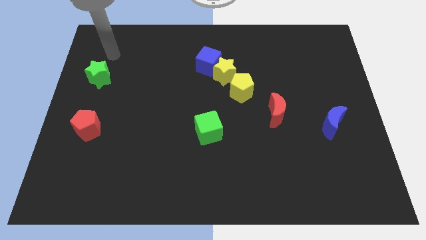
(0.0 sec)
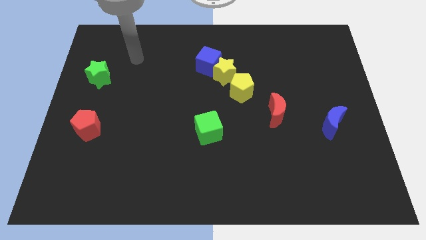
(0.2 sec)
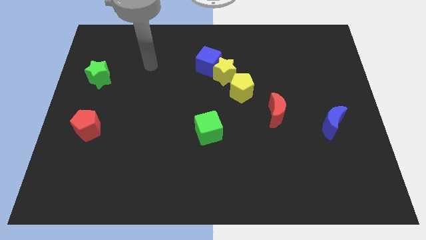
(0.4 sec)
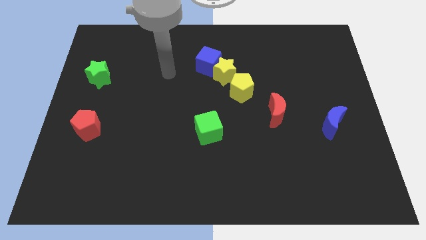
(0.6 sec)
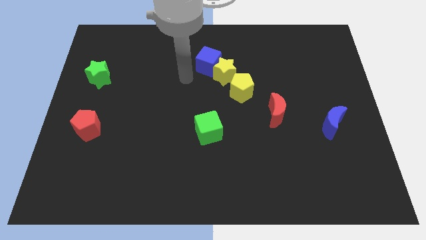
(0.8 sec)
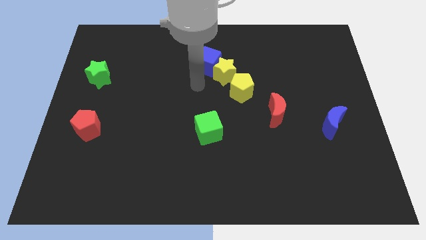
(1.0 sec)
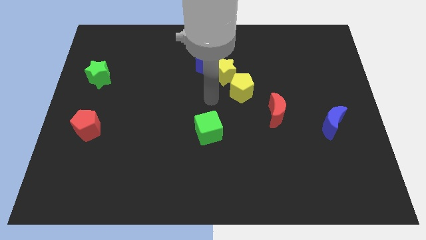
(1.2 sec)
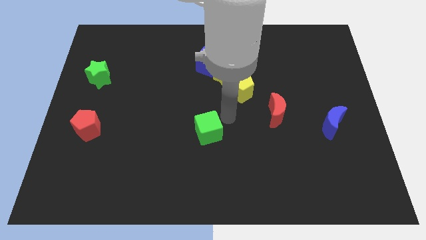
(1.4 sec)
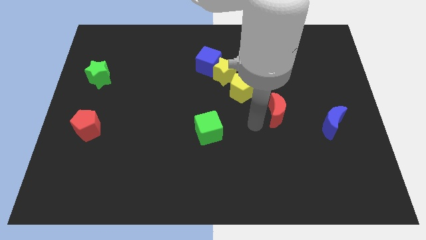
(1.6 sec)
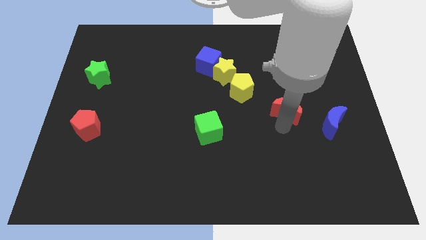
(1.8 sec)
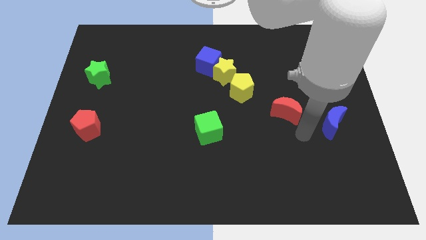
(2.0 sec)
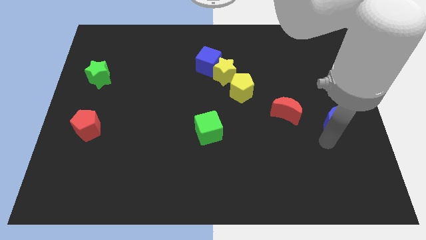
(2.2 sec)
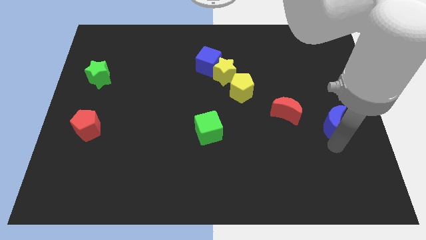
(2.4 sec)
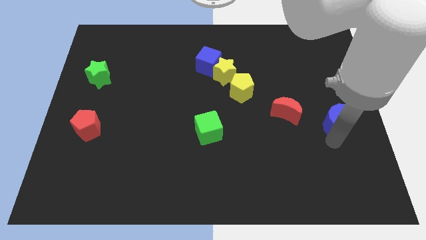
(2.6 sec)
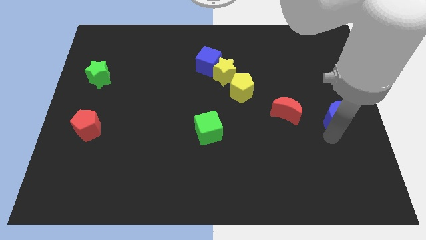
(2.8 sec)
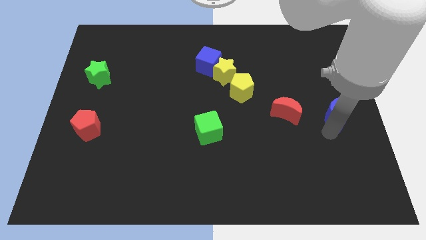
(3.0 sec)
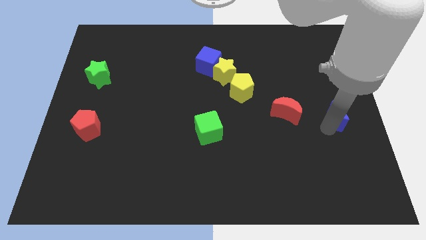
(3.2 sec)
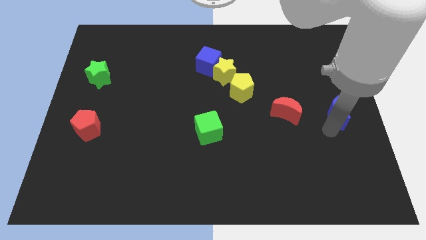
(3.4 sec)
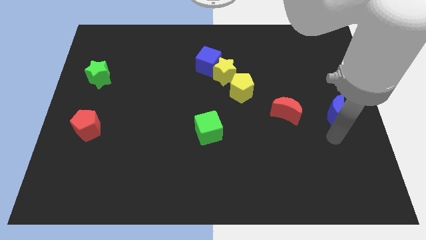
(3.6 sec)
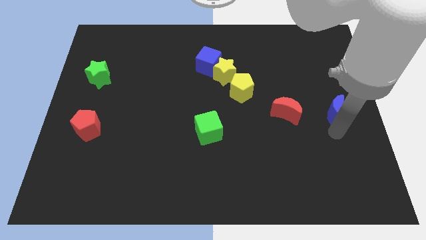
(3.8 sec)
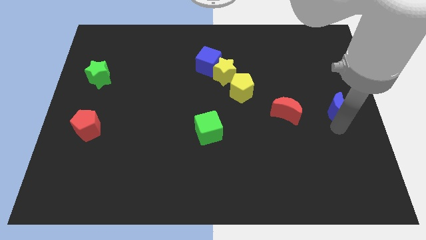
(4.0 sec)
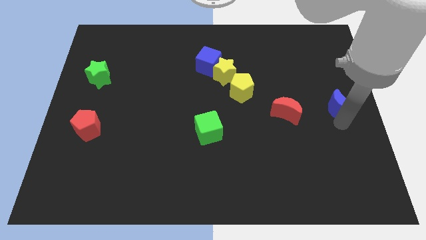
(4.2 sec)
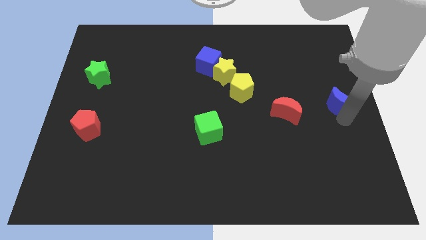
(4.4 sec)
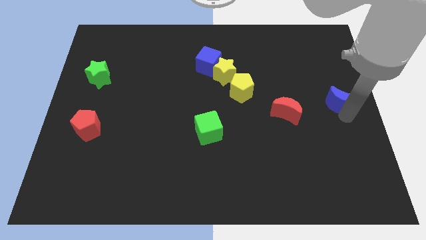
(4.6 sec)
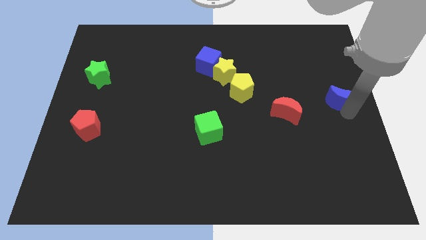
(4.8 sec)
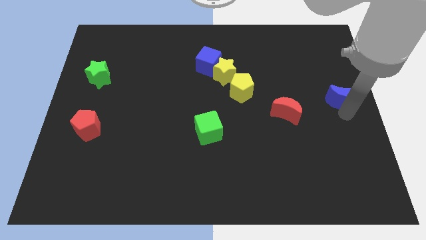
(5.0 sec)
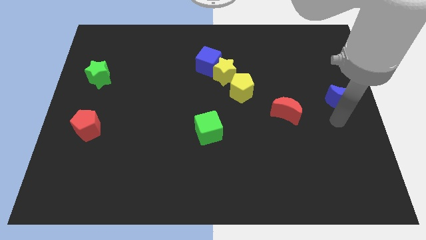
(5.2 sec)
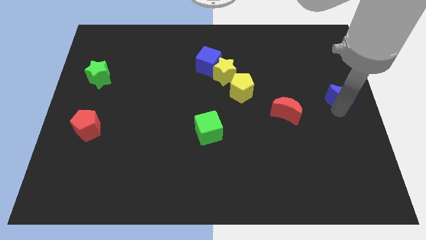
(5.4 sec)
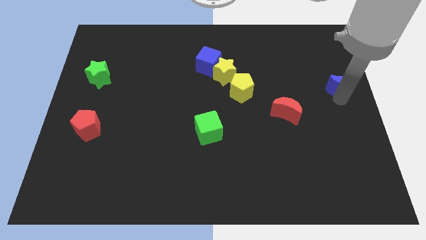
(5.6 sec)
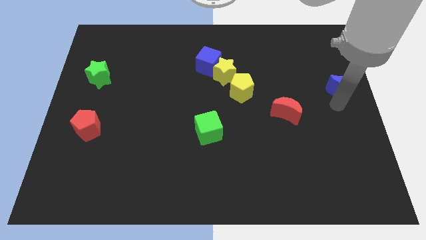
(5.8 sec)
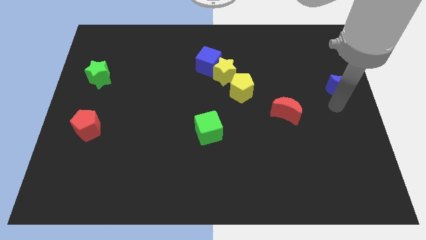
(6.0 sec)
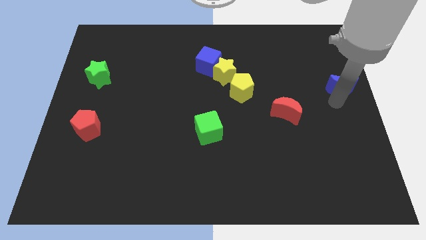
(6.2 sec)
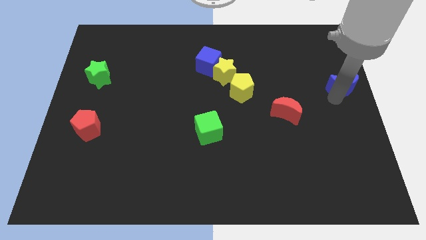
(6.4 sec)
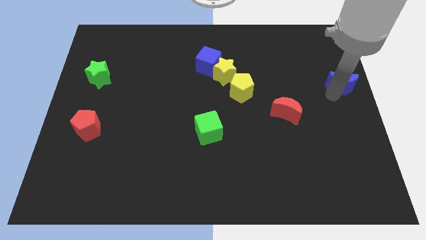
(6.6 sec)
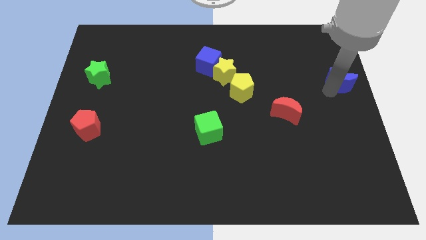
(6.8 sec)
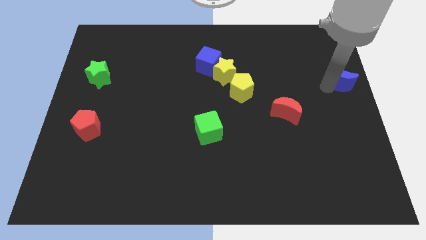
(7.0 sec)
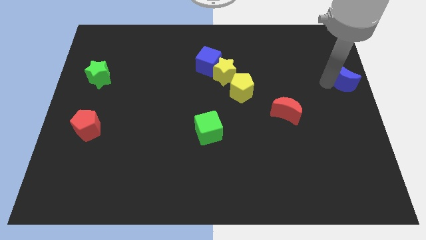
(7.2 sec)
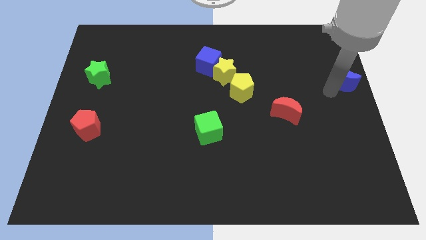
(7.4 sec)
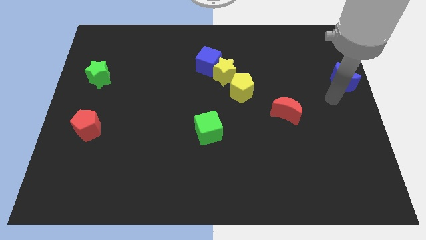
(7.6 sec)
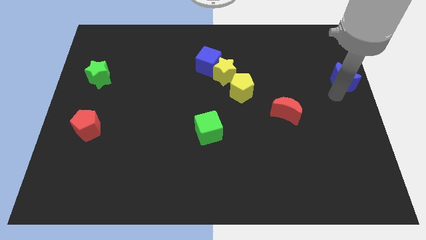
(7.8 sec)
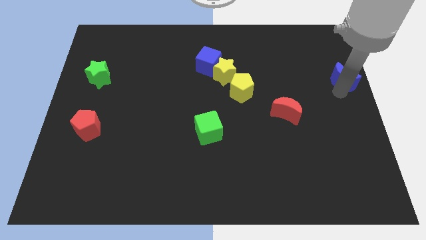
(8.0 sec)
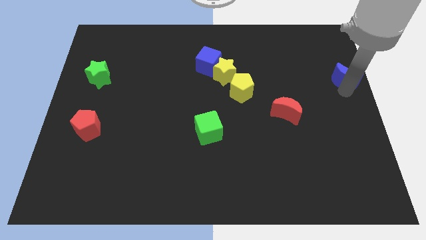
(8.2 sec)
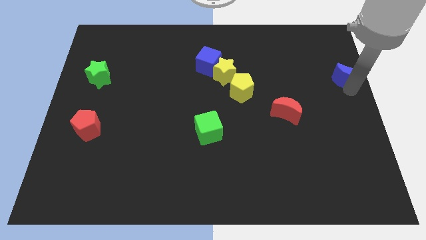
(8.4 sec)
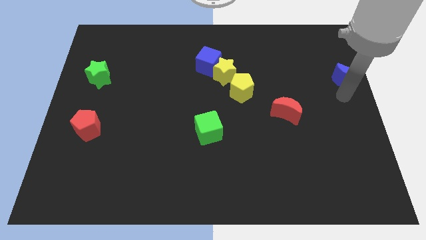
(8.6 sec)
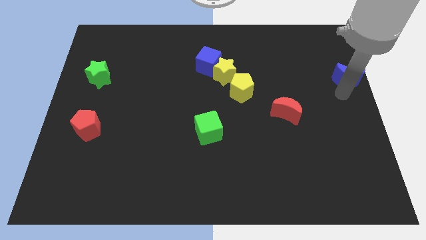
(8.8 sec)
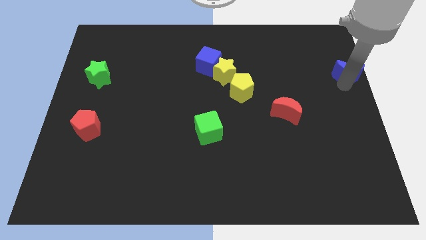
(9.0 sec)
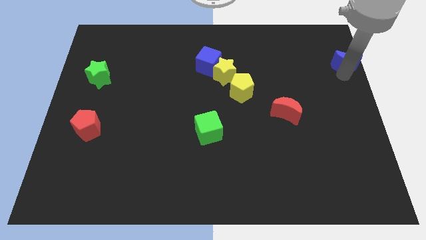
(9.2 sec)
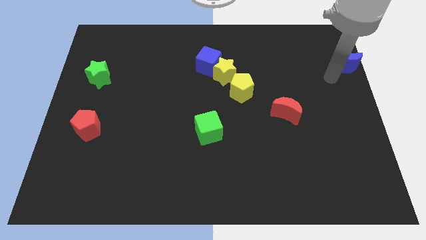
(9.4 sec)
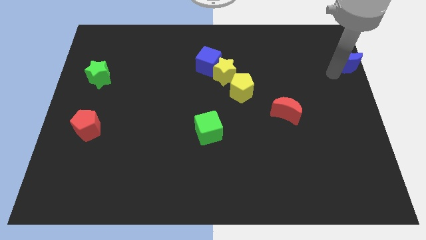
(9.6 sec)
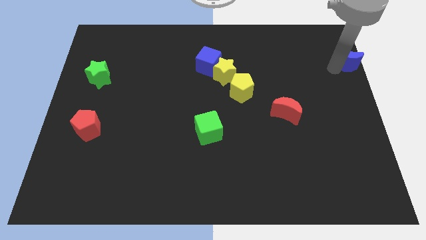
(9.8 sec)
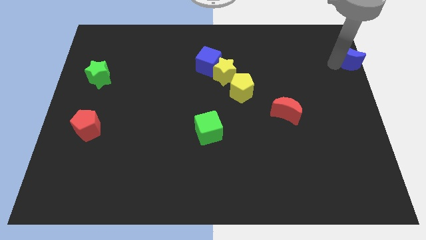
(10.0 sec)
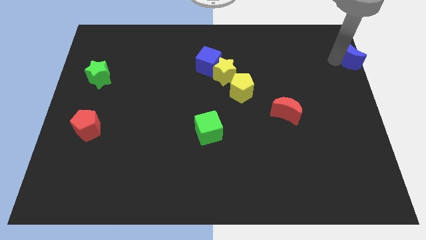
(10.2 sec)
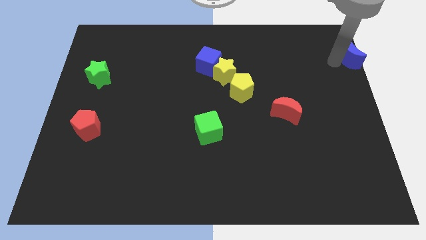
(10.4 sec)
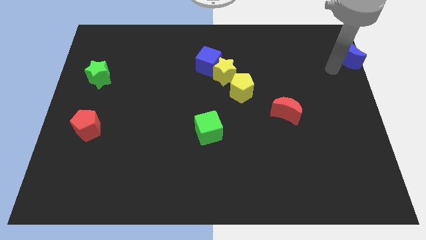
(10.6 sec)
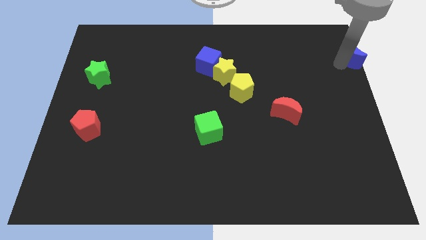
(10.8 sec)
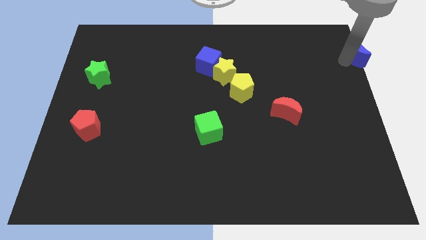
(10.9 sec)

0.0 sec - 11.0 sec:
put the blue moon to the top right corner
